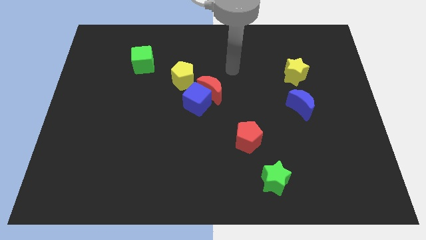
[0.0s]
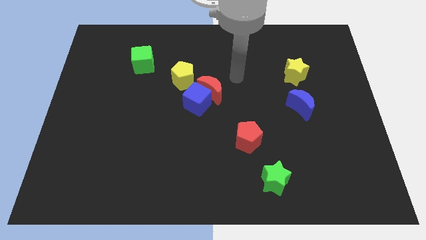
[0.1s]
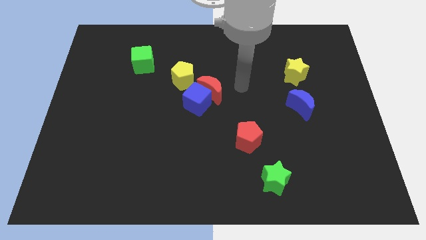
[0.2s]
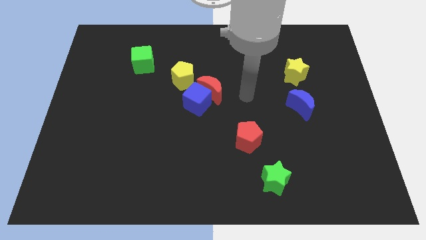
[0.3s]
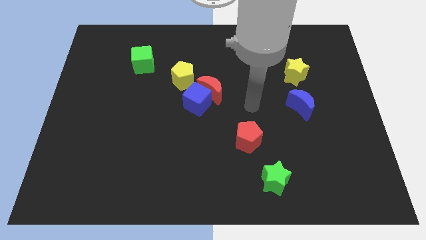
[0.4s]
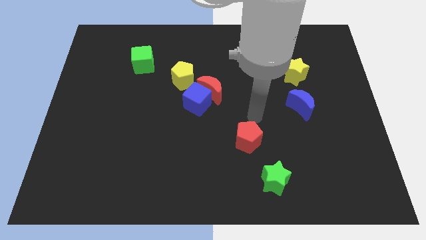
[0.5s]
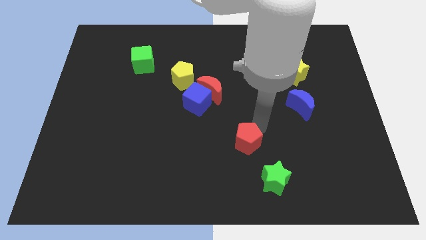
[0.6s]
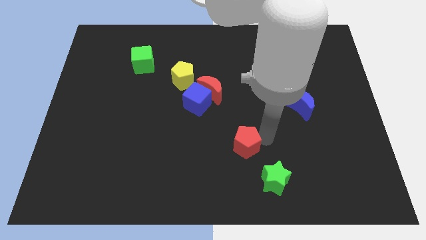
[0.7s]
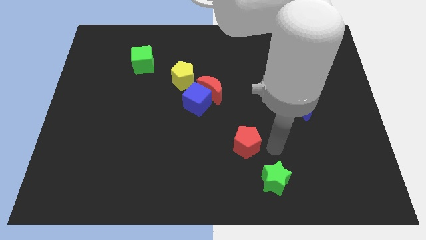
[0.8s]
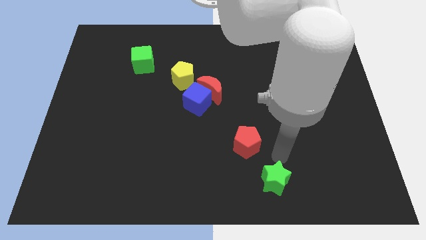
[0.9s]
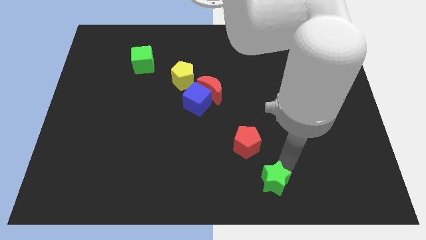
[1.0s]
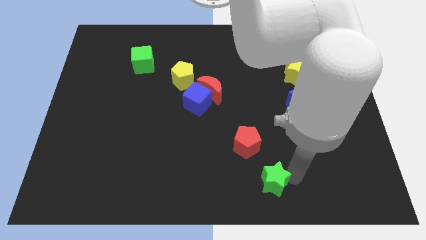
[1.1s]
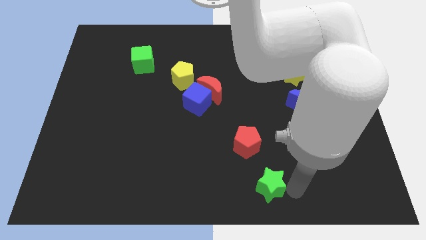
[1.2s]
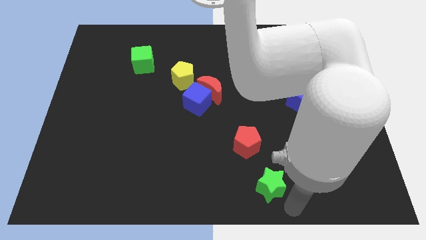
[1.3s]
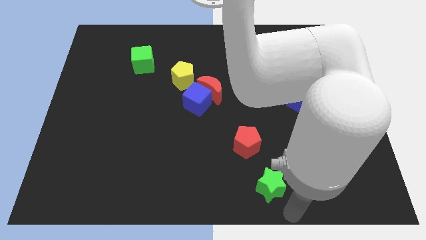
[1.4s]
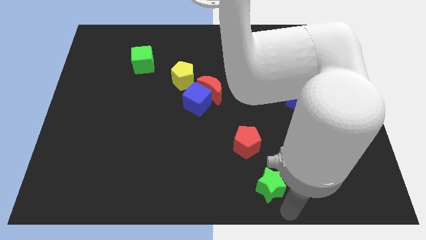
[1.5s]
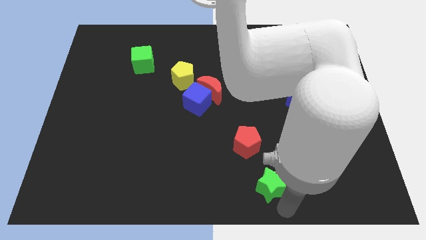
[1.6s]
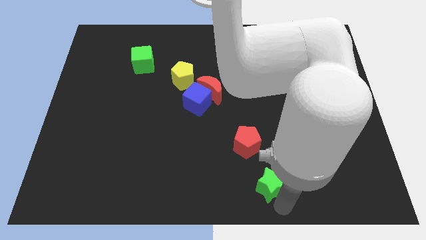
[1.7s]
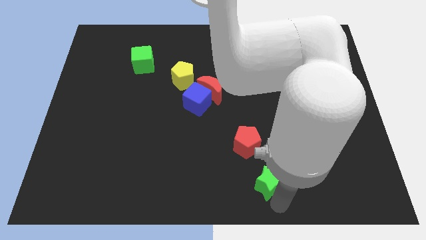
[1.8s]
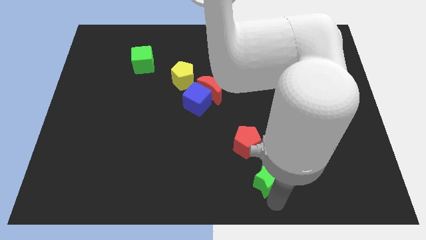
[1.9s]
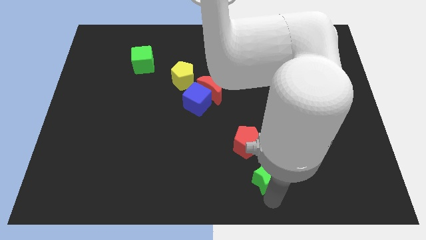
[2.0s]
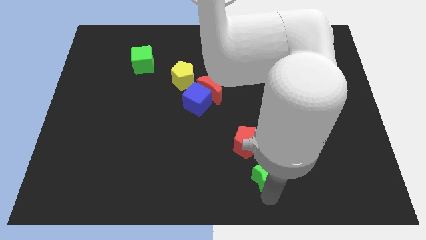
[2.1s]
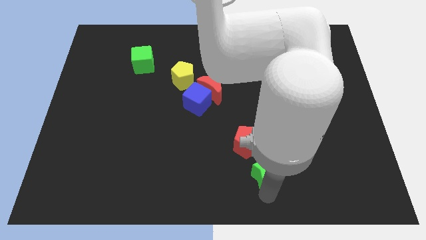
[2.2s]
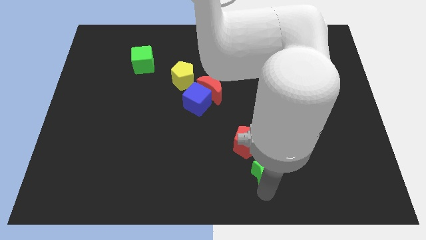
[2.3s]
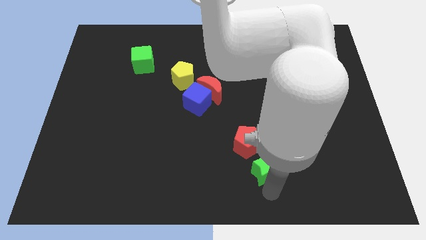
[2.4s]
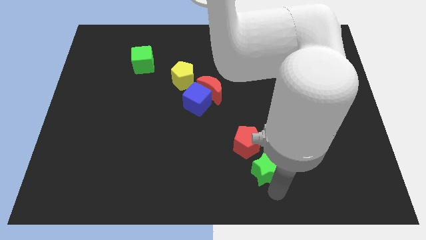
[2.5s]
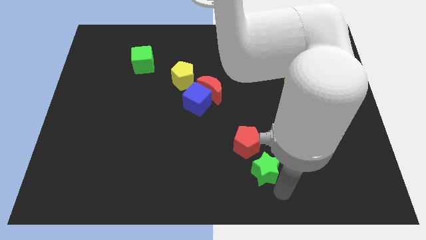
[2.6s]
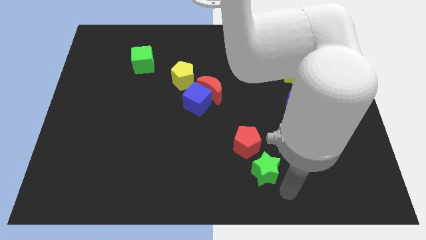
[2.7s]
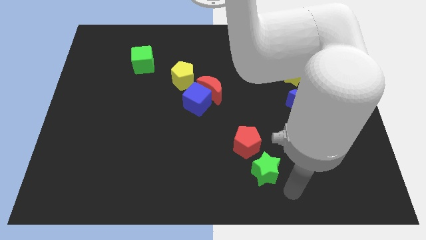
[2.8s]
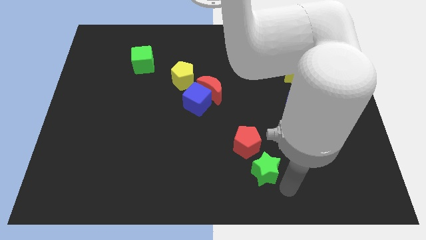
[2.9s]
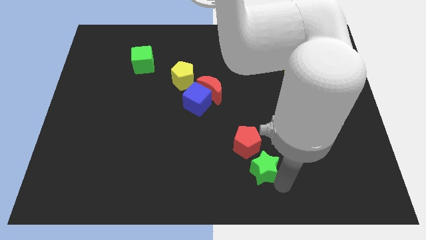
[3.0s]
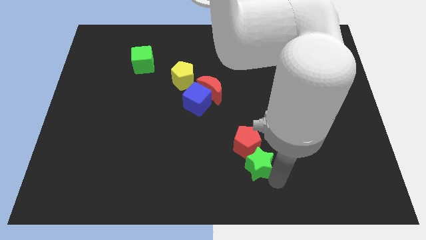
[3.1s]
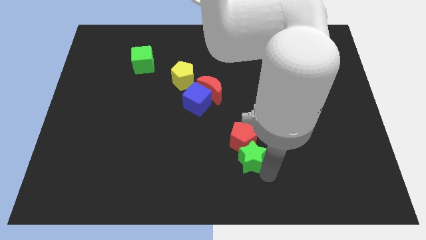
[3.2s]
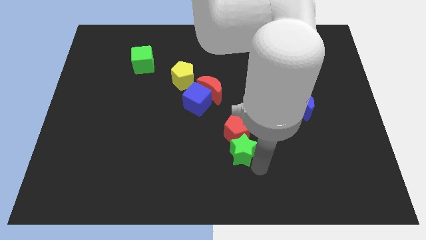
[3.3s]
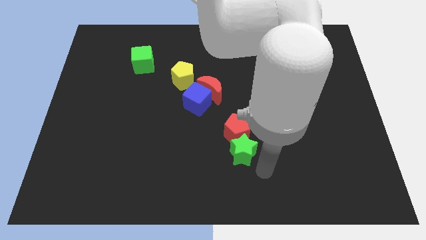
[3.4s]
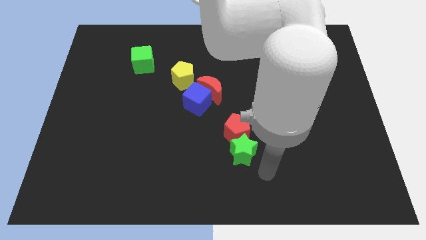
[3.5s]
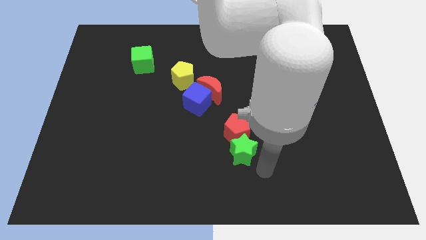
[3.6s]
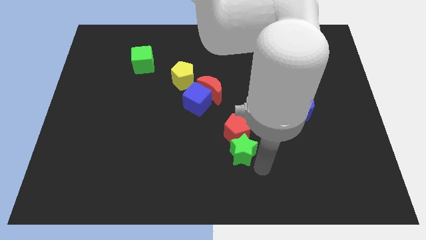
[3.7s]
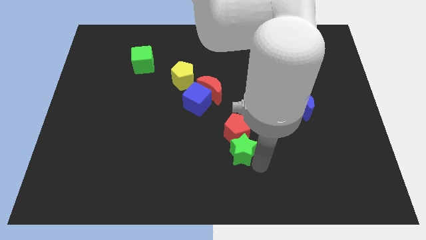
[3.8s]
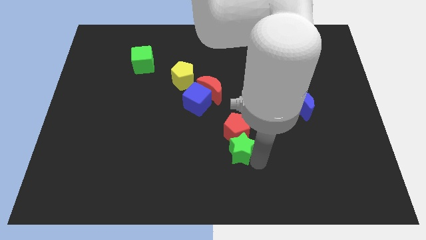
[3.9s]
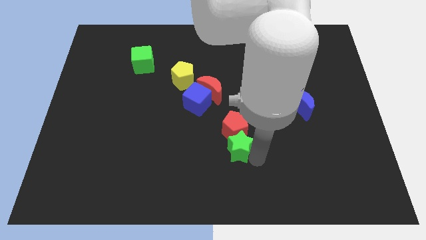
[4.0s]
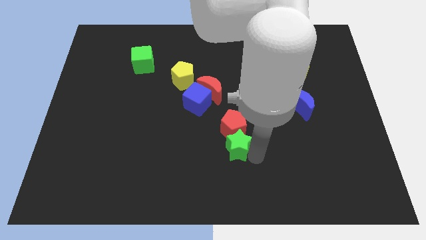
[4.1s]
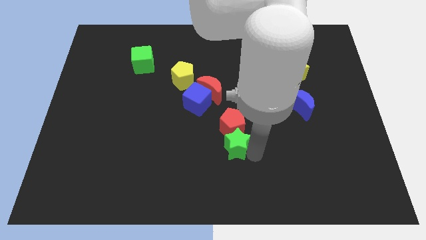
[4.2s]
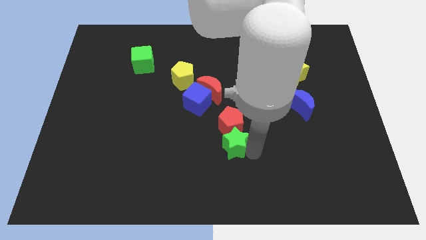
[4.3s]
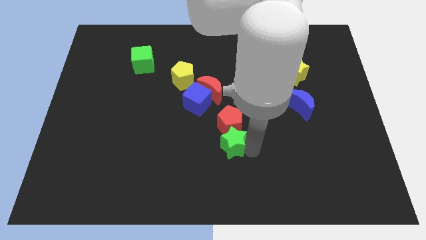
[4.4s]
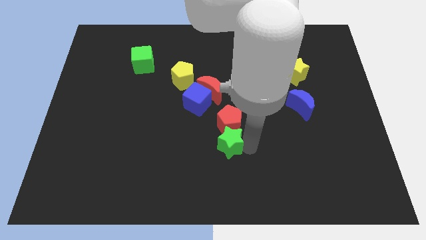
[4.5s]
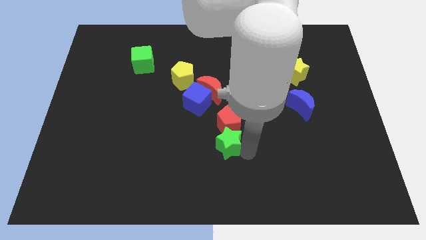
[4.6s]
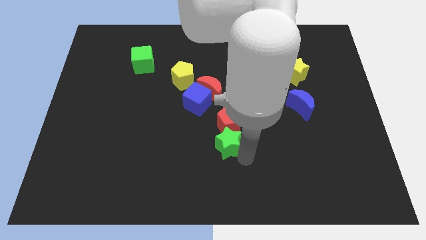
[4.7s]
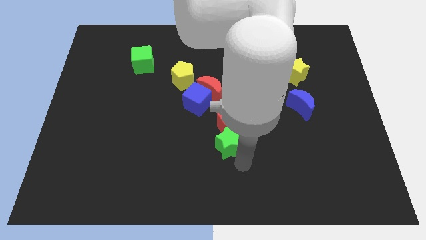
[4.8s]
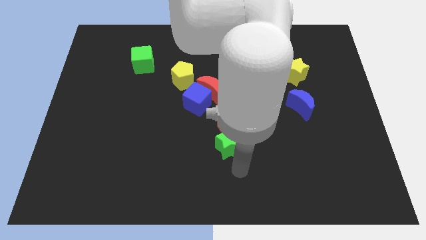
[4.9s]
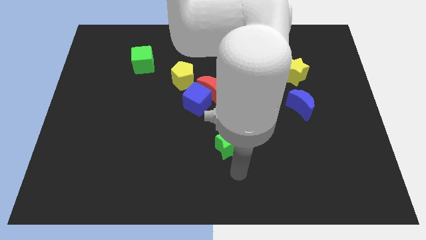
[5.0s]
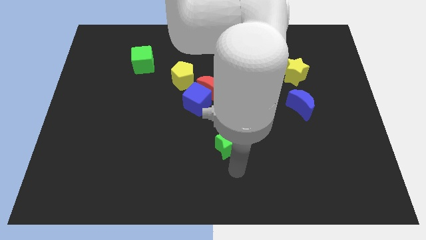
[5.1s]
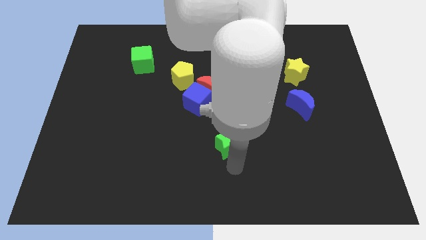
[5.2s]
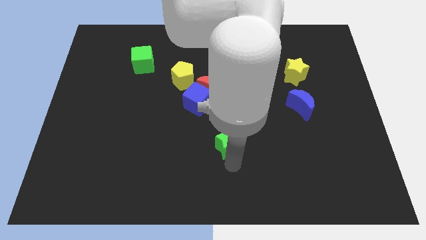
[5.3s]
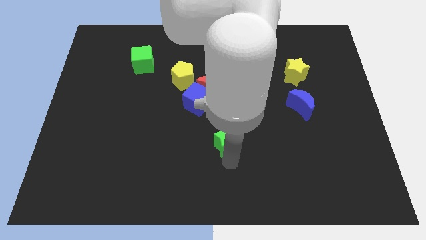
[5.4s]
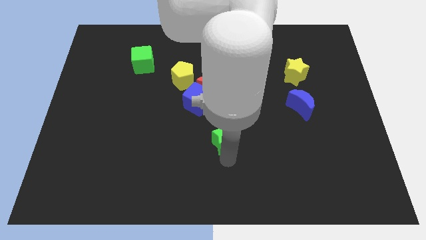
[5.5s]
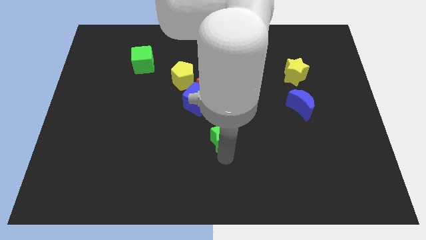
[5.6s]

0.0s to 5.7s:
push the green star diagonally down and to the right of the blue cube

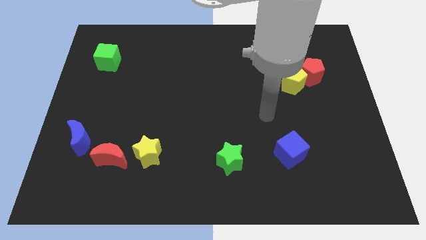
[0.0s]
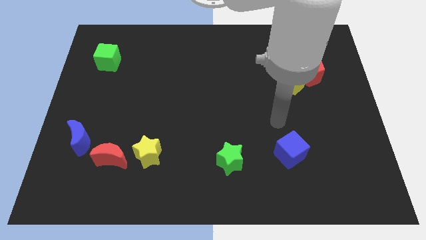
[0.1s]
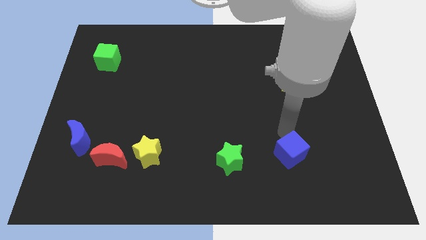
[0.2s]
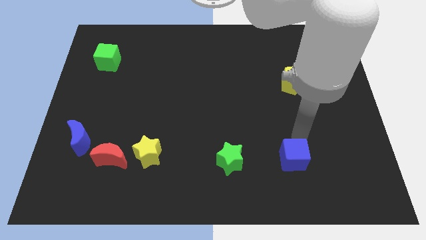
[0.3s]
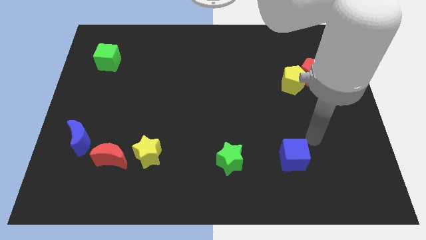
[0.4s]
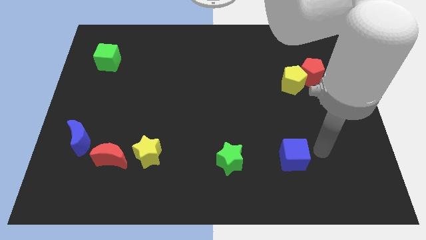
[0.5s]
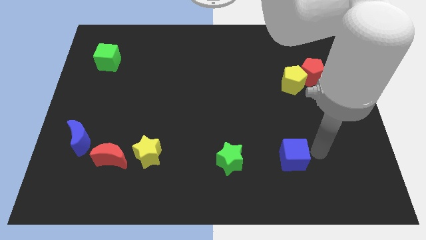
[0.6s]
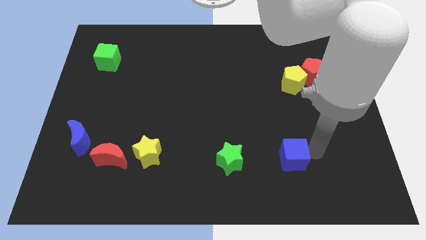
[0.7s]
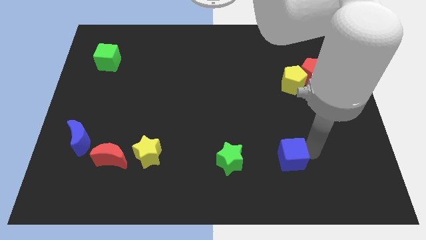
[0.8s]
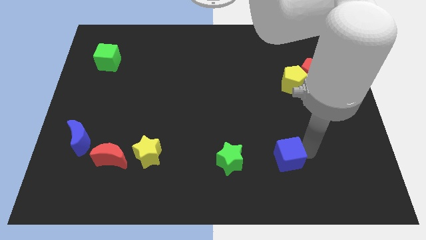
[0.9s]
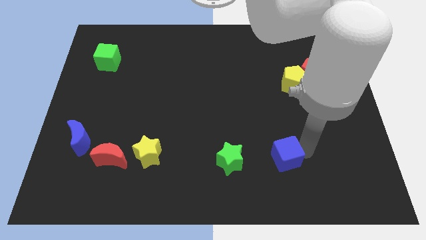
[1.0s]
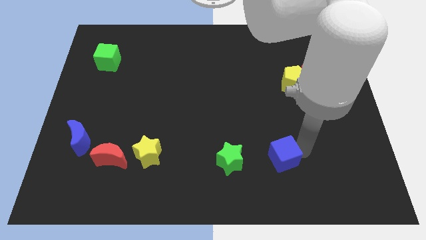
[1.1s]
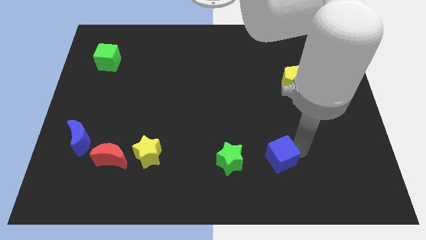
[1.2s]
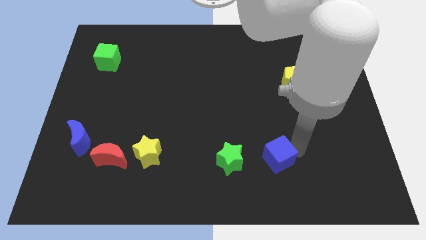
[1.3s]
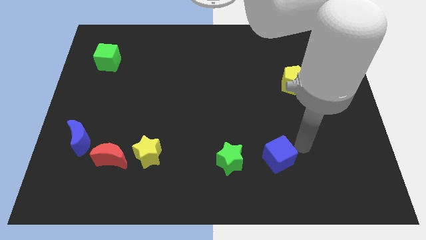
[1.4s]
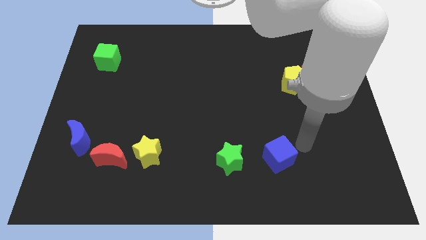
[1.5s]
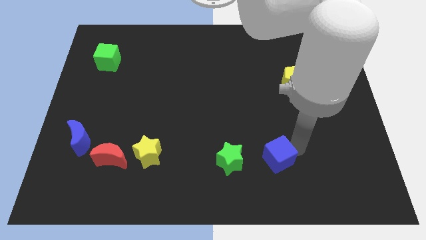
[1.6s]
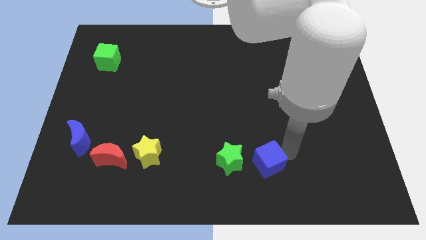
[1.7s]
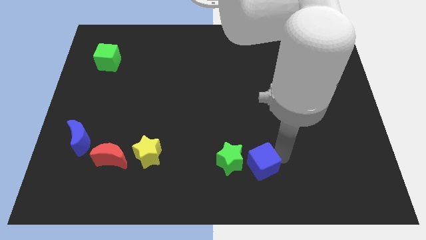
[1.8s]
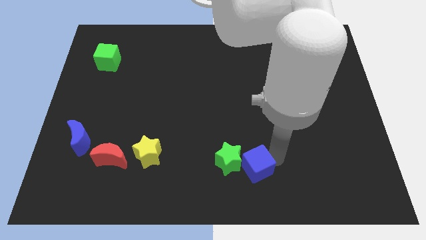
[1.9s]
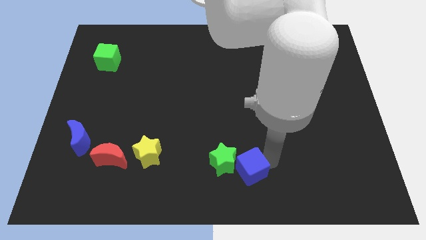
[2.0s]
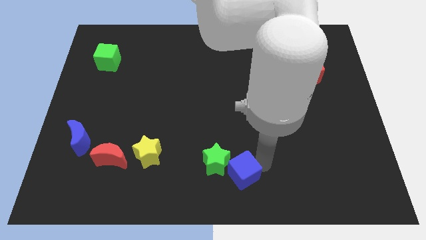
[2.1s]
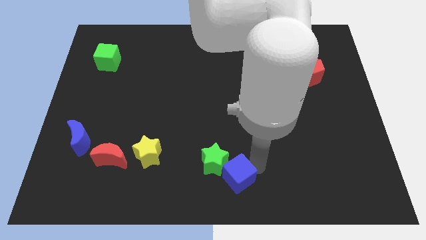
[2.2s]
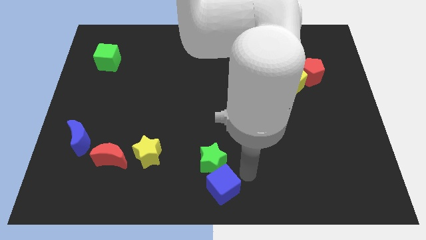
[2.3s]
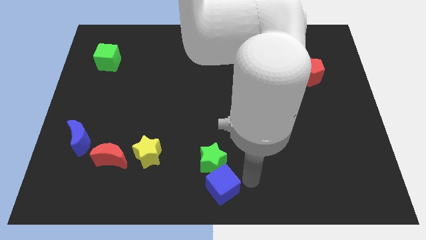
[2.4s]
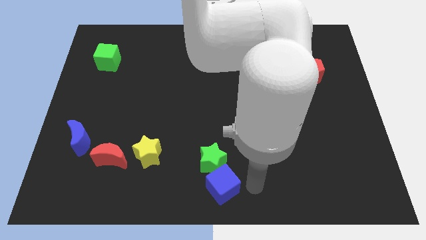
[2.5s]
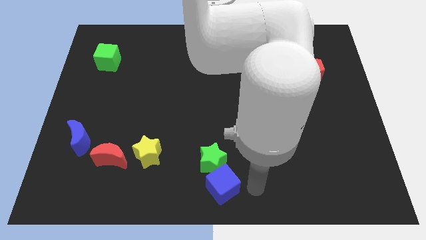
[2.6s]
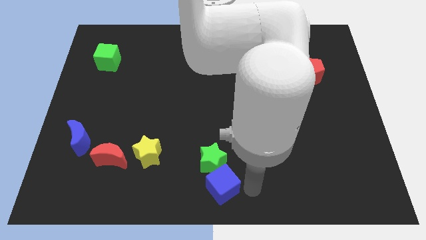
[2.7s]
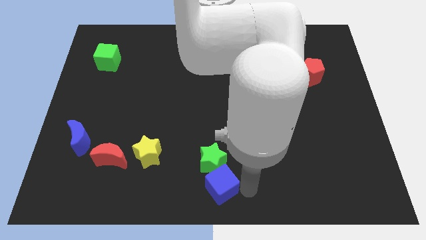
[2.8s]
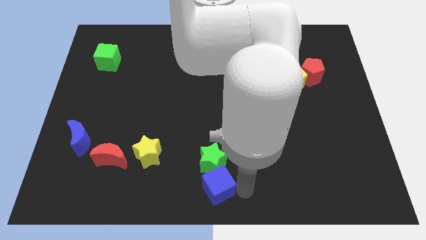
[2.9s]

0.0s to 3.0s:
put the blue cube diagonally down and to the left of the green star
